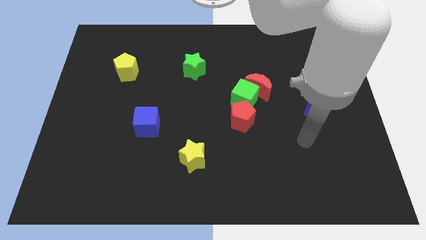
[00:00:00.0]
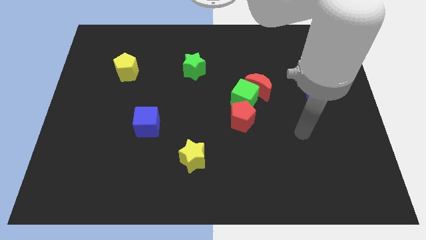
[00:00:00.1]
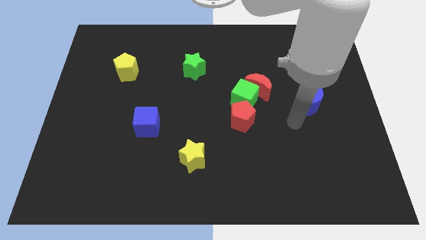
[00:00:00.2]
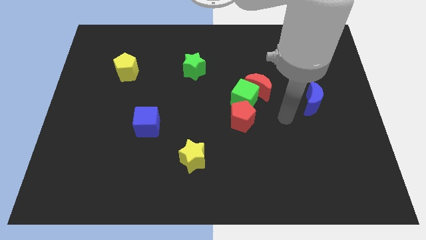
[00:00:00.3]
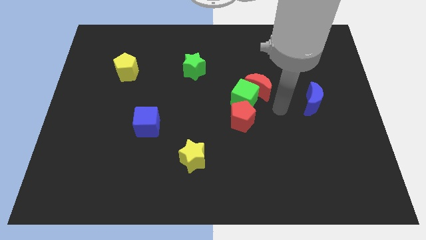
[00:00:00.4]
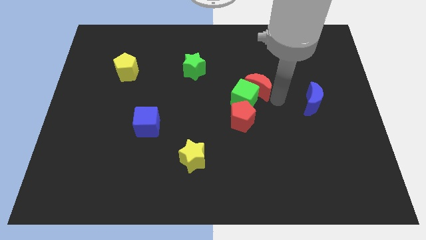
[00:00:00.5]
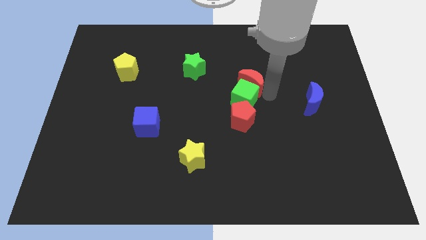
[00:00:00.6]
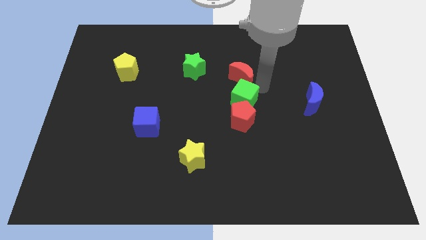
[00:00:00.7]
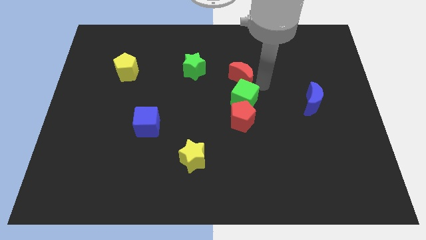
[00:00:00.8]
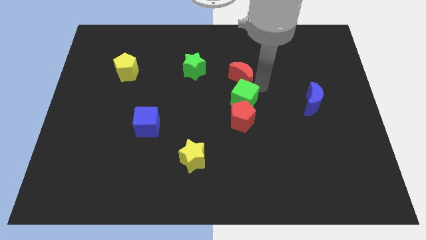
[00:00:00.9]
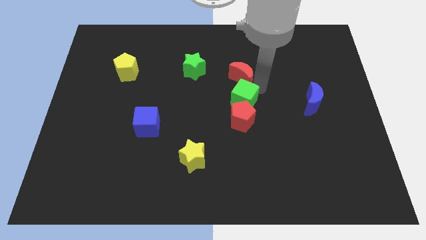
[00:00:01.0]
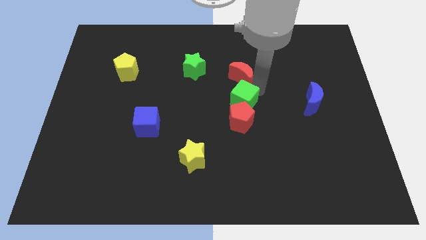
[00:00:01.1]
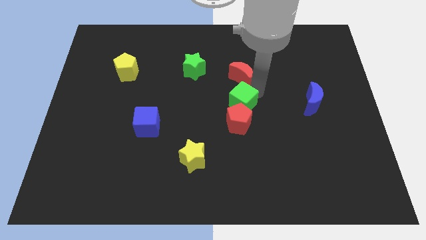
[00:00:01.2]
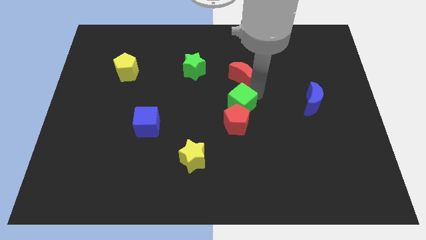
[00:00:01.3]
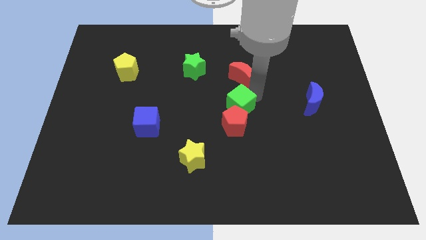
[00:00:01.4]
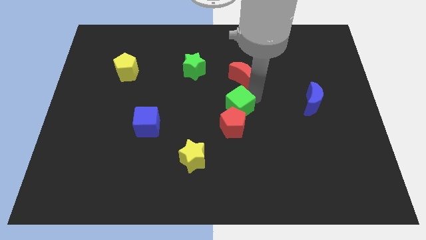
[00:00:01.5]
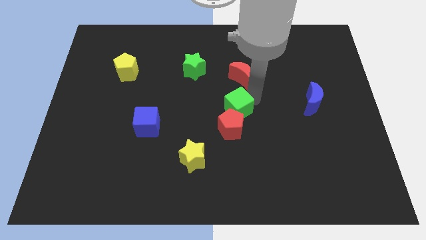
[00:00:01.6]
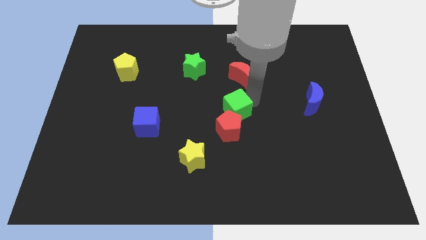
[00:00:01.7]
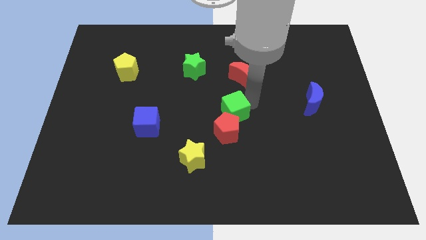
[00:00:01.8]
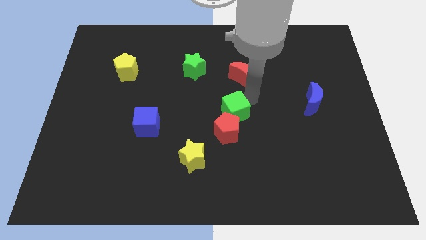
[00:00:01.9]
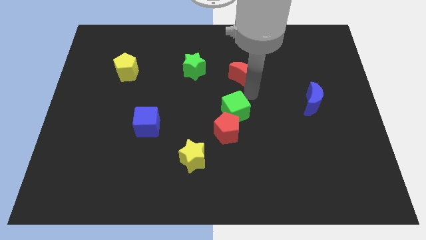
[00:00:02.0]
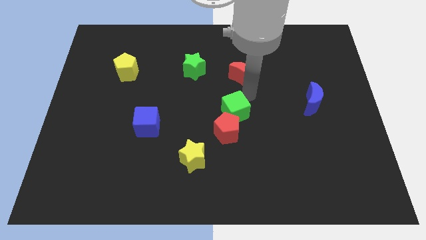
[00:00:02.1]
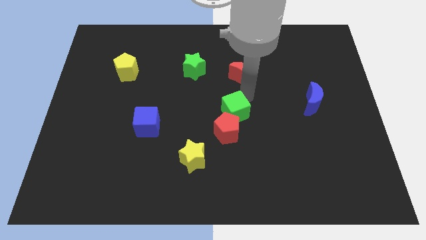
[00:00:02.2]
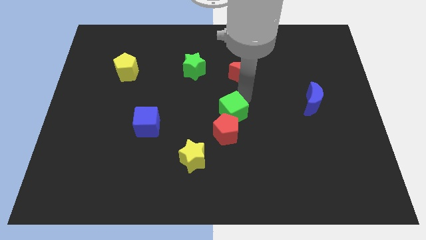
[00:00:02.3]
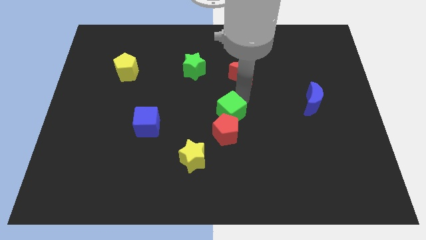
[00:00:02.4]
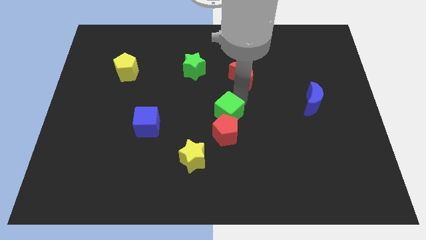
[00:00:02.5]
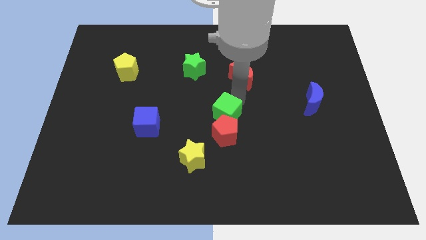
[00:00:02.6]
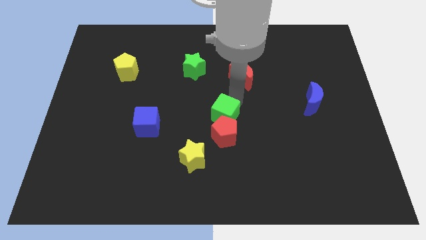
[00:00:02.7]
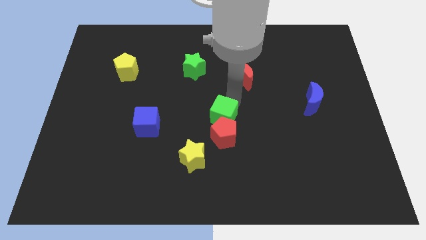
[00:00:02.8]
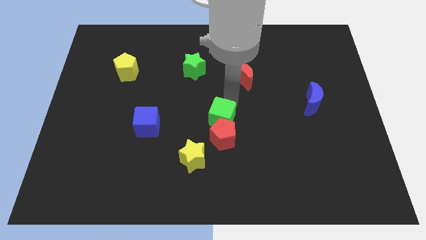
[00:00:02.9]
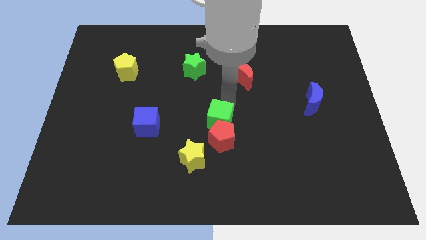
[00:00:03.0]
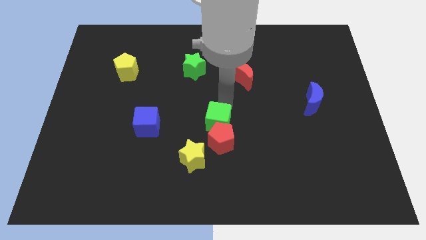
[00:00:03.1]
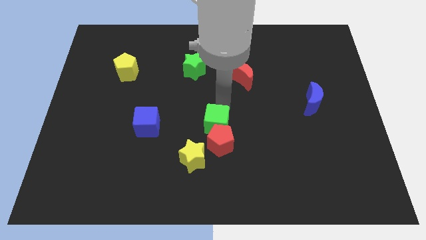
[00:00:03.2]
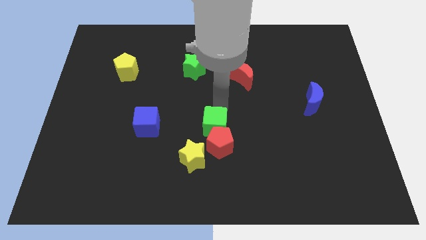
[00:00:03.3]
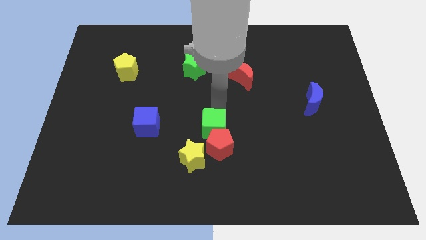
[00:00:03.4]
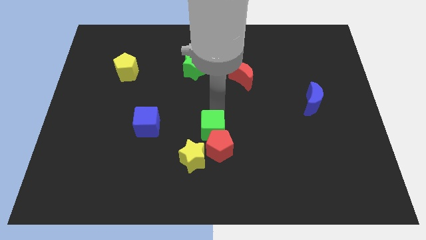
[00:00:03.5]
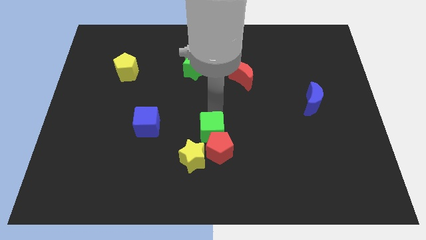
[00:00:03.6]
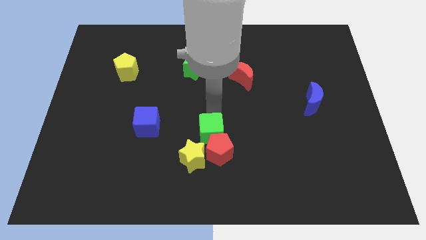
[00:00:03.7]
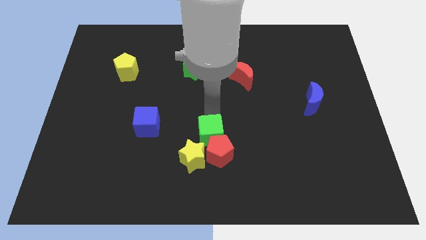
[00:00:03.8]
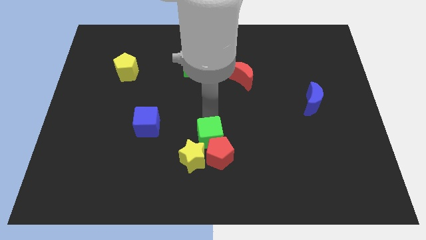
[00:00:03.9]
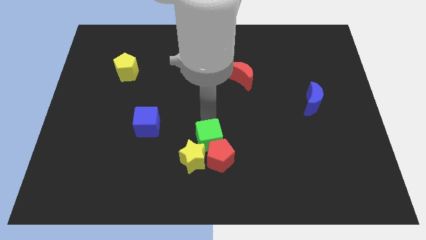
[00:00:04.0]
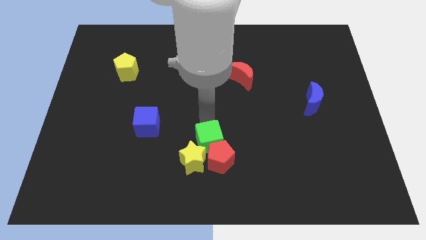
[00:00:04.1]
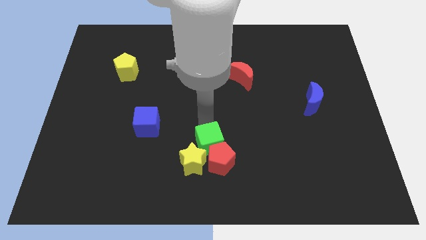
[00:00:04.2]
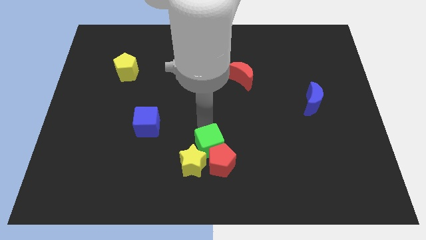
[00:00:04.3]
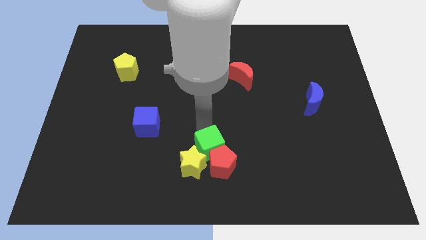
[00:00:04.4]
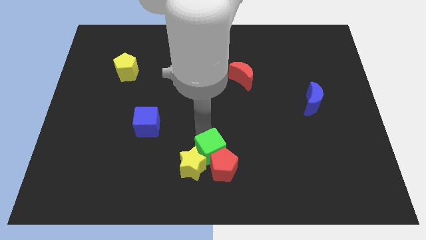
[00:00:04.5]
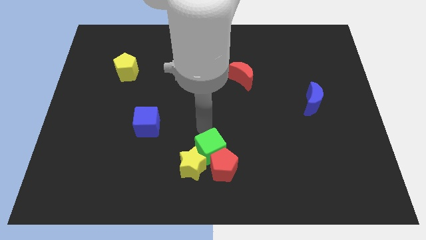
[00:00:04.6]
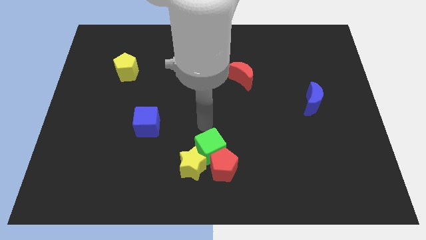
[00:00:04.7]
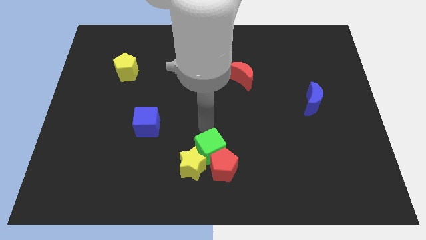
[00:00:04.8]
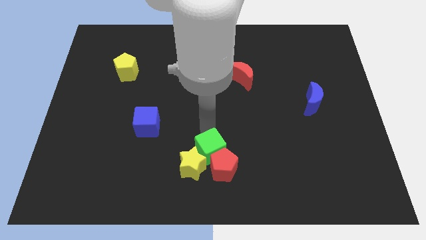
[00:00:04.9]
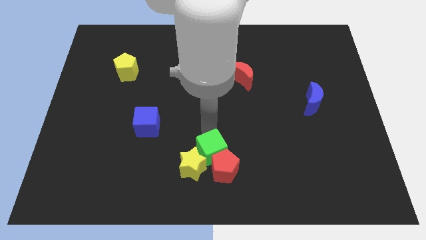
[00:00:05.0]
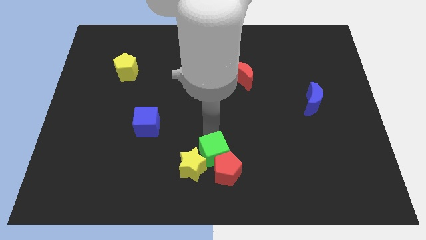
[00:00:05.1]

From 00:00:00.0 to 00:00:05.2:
put the green cube to the bottom side
